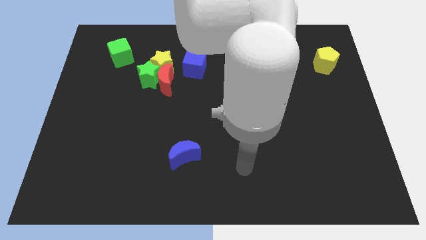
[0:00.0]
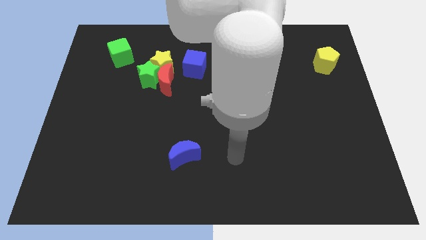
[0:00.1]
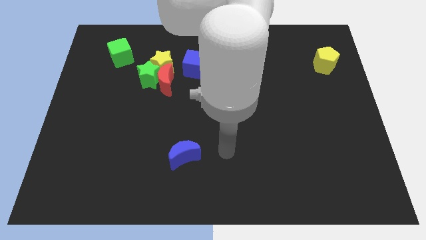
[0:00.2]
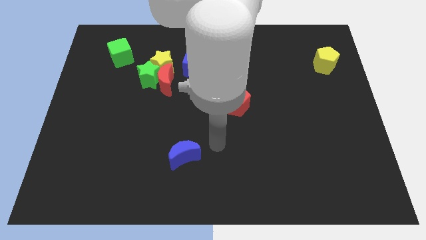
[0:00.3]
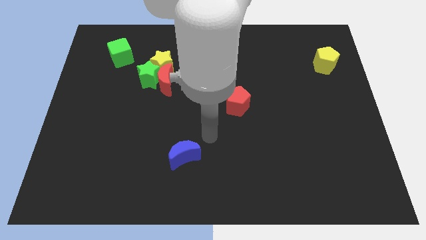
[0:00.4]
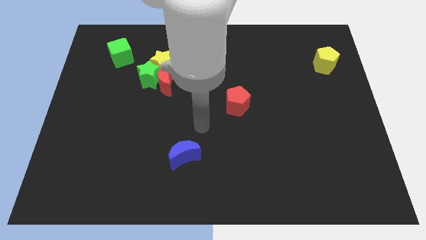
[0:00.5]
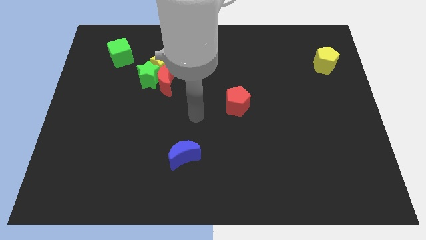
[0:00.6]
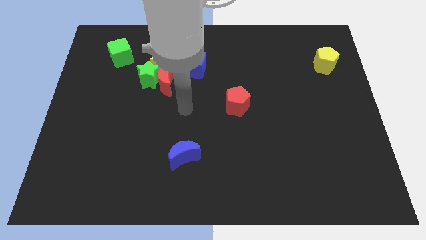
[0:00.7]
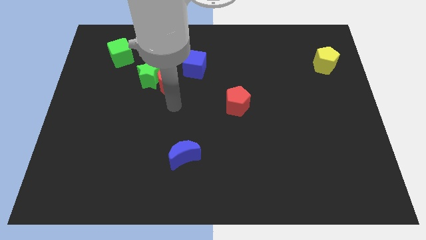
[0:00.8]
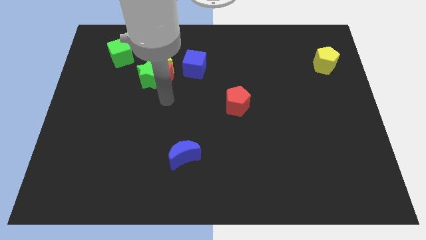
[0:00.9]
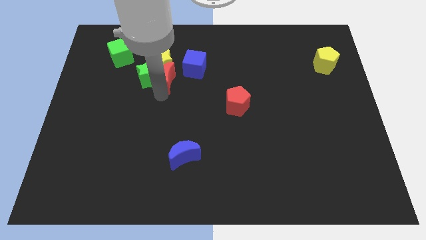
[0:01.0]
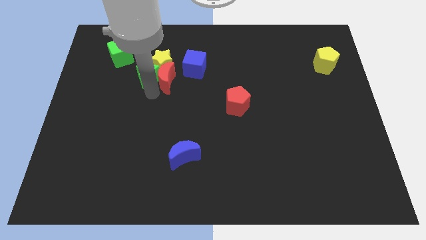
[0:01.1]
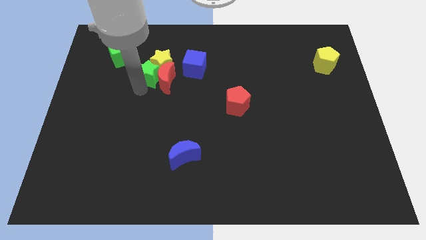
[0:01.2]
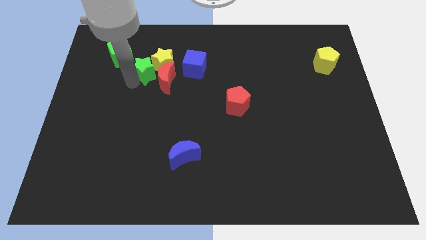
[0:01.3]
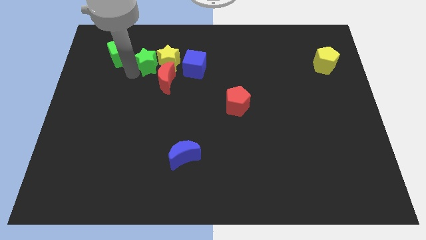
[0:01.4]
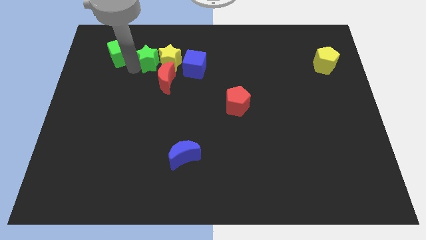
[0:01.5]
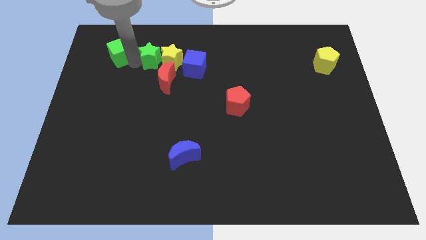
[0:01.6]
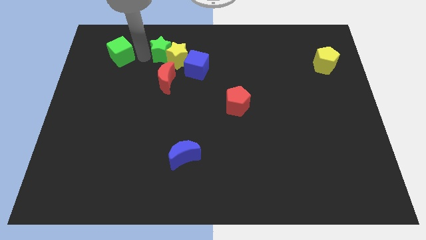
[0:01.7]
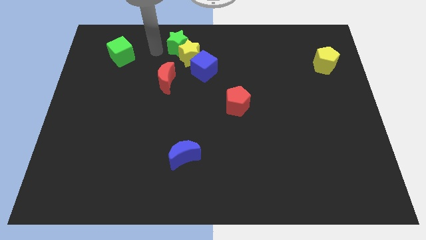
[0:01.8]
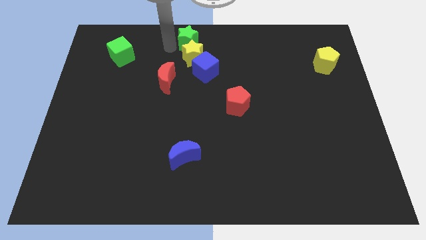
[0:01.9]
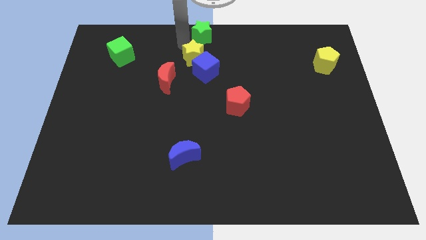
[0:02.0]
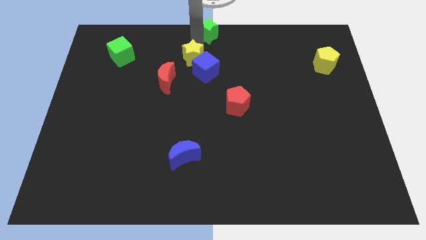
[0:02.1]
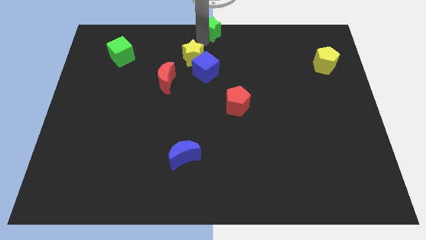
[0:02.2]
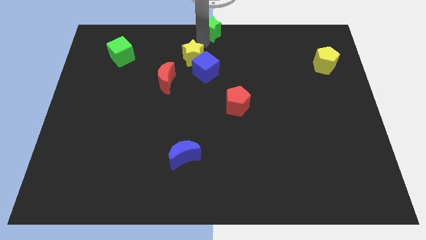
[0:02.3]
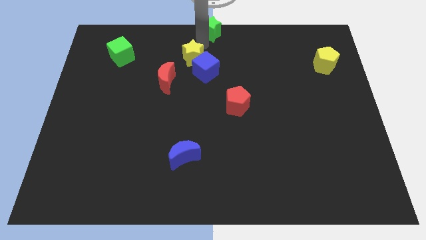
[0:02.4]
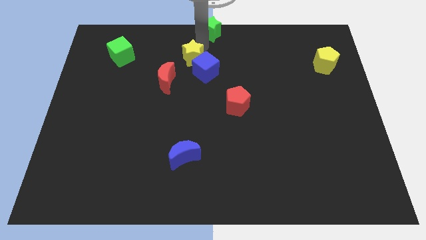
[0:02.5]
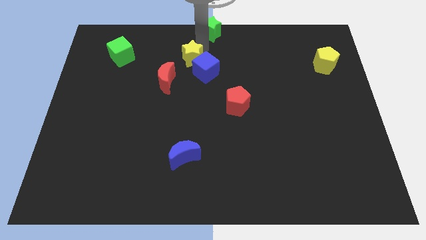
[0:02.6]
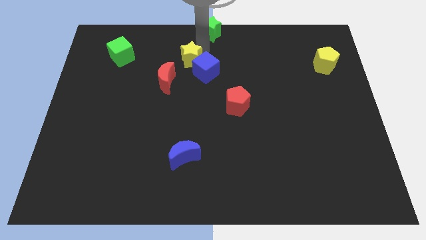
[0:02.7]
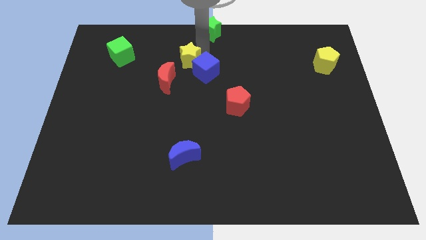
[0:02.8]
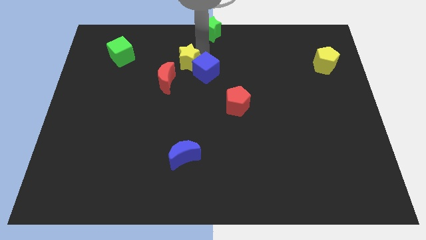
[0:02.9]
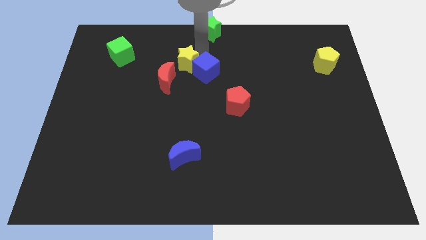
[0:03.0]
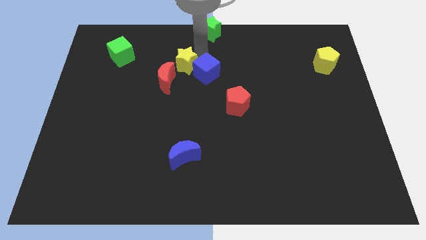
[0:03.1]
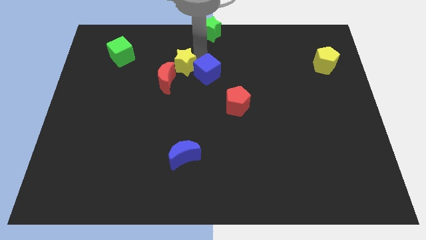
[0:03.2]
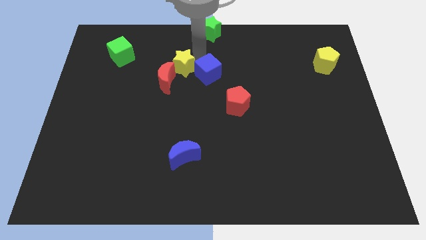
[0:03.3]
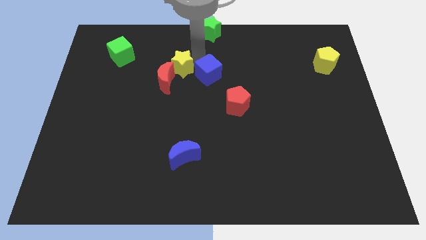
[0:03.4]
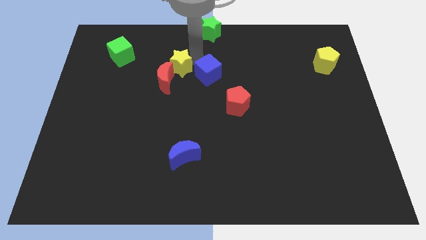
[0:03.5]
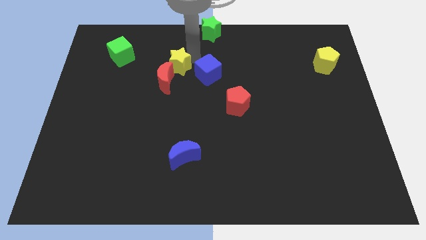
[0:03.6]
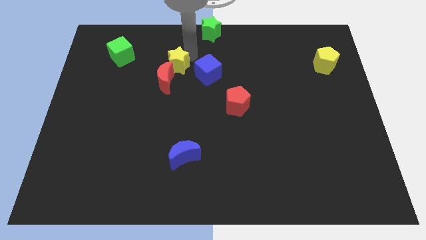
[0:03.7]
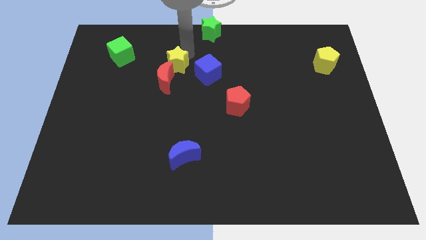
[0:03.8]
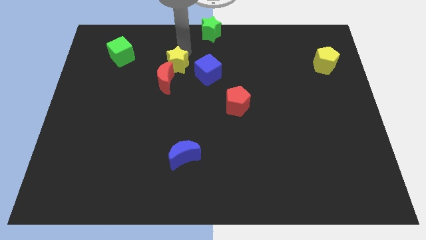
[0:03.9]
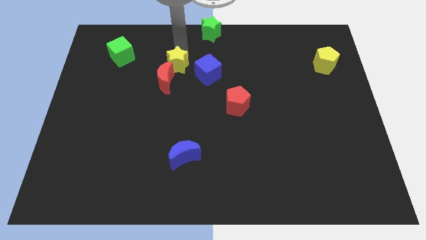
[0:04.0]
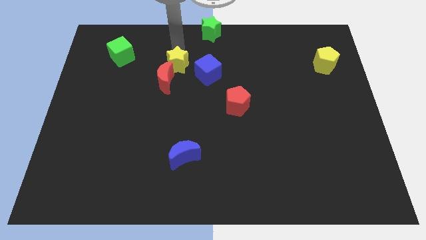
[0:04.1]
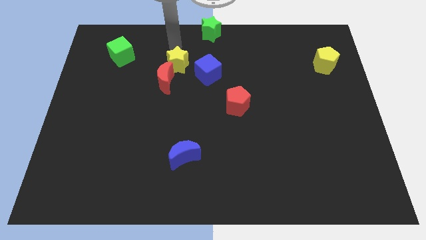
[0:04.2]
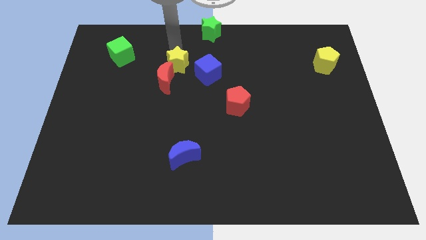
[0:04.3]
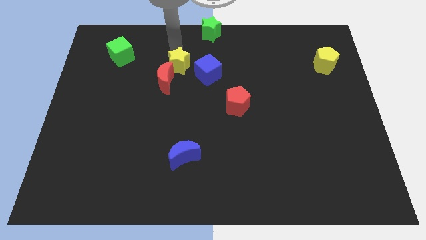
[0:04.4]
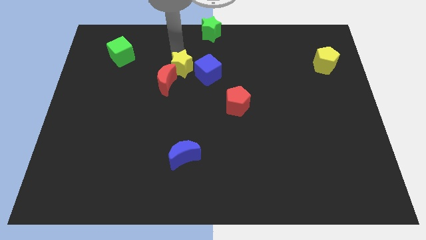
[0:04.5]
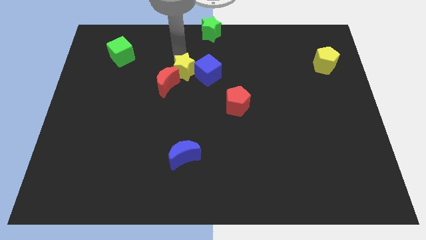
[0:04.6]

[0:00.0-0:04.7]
move the yellow star to the center of the board
